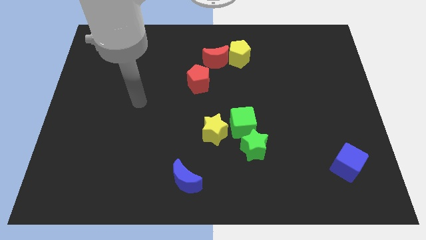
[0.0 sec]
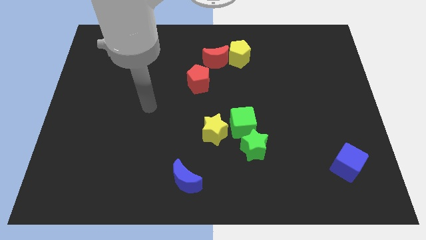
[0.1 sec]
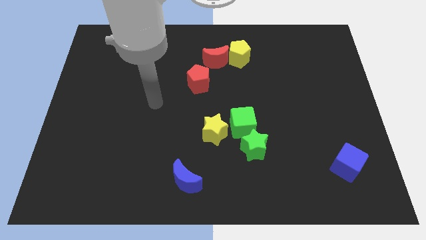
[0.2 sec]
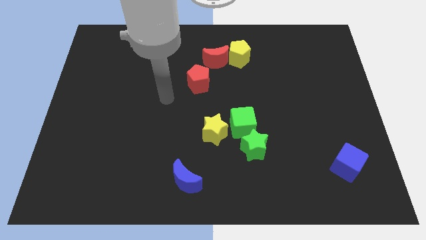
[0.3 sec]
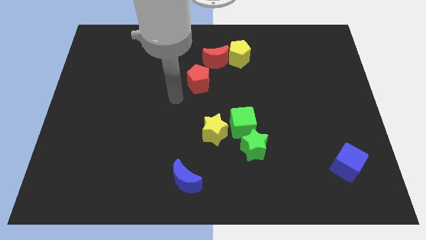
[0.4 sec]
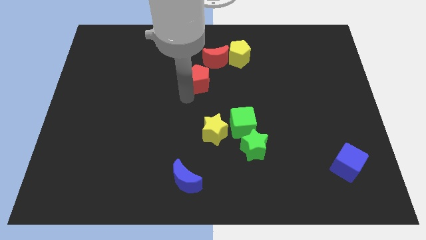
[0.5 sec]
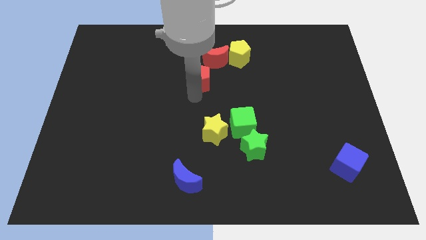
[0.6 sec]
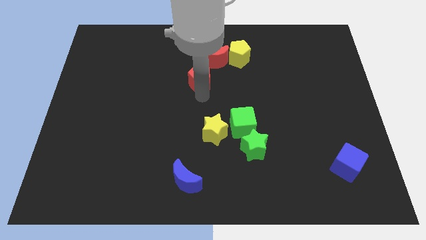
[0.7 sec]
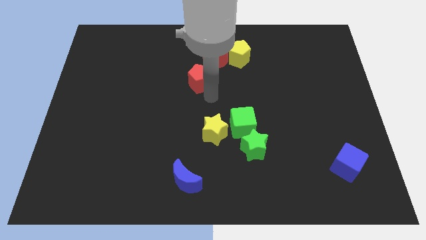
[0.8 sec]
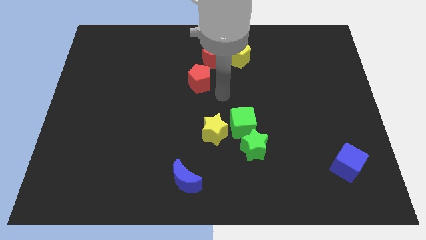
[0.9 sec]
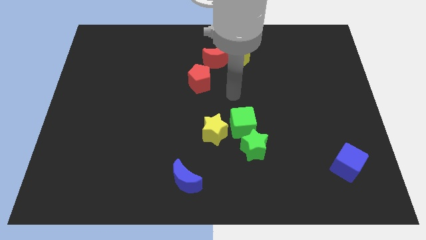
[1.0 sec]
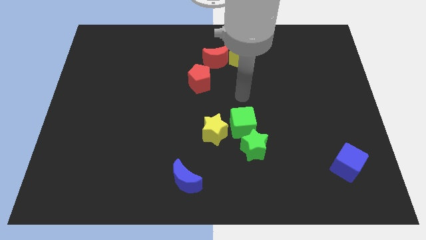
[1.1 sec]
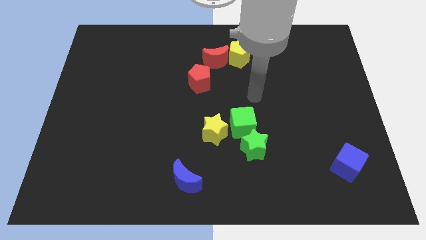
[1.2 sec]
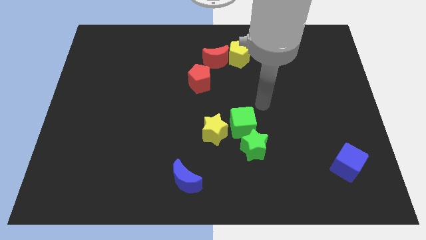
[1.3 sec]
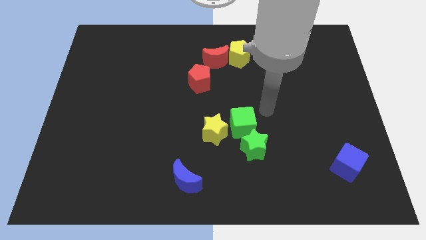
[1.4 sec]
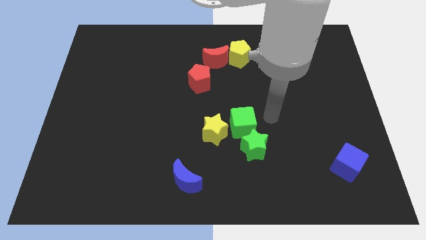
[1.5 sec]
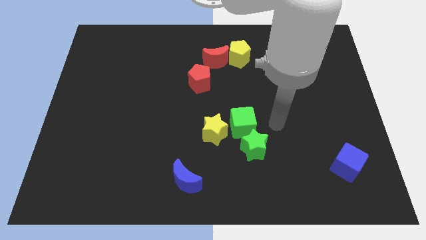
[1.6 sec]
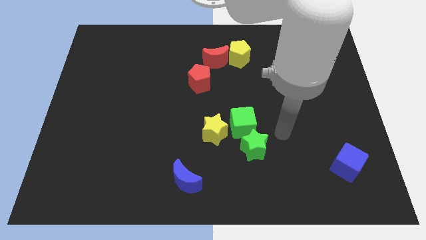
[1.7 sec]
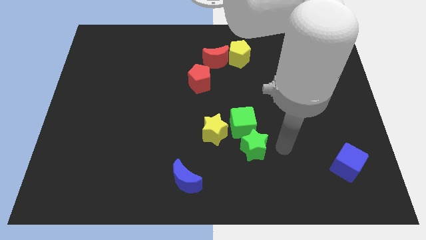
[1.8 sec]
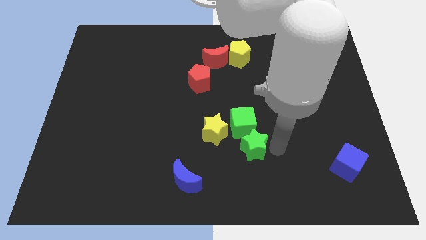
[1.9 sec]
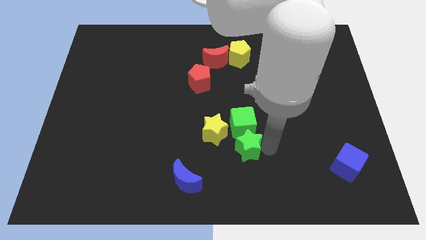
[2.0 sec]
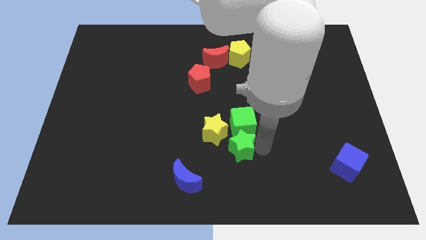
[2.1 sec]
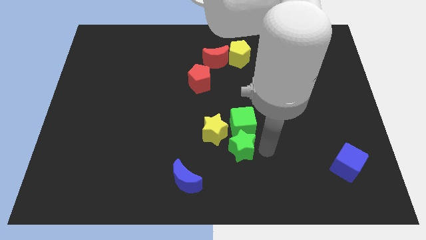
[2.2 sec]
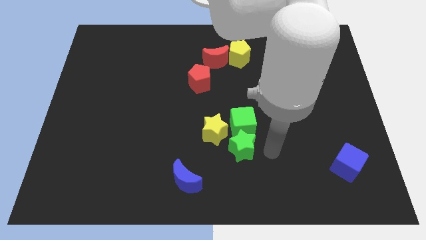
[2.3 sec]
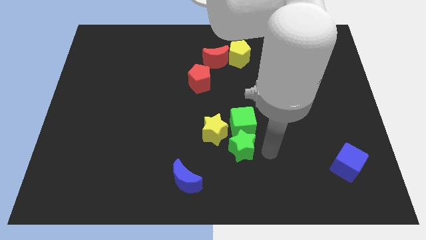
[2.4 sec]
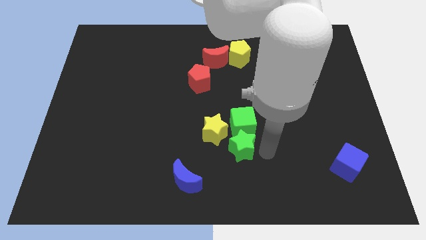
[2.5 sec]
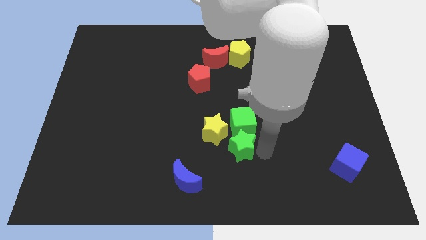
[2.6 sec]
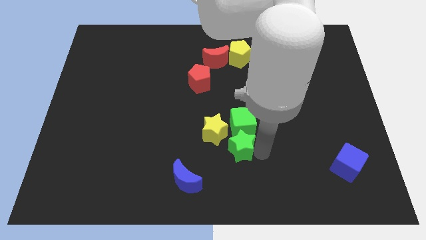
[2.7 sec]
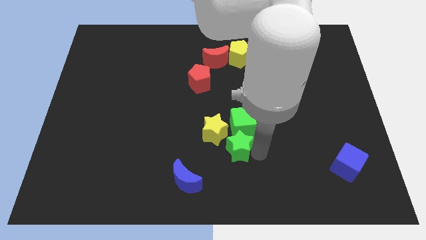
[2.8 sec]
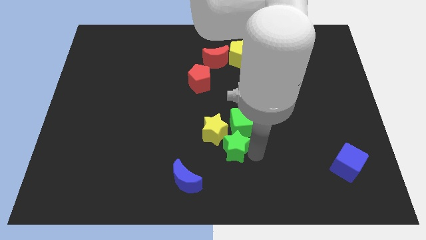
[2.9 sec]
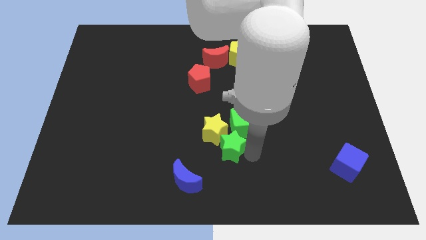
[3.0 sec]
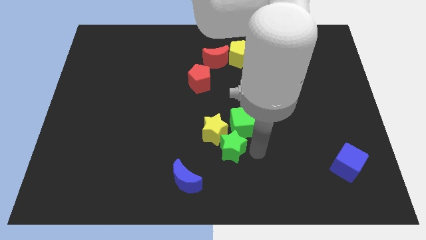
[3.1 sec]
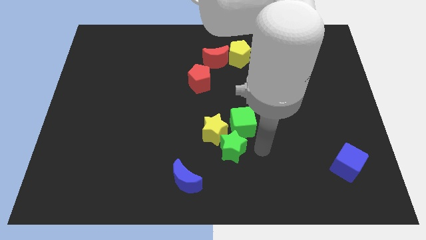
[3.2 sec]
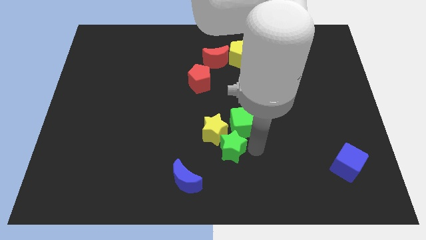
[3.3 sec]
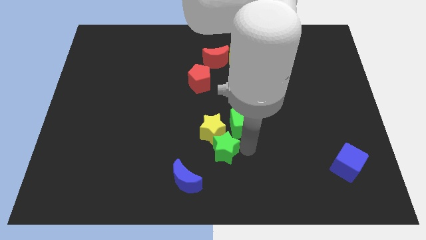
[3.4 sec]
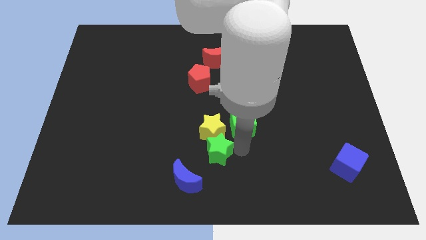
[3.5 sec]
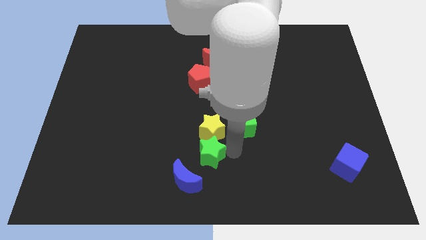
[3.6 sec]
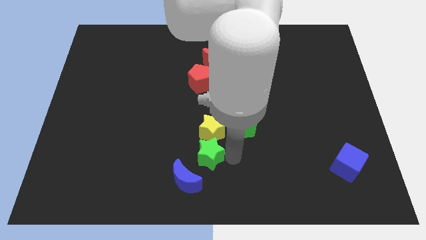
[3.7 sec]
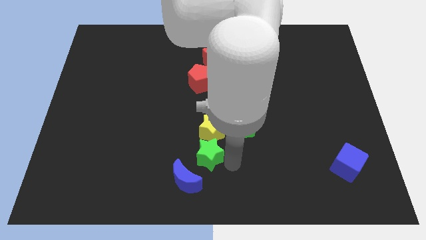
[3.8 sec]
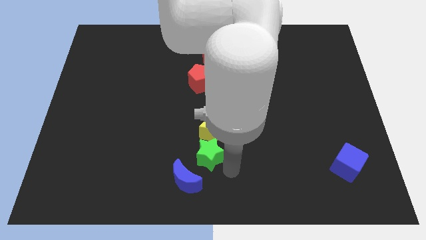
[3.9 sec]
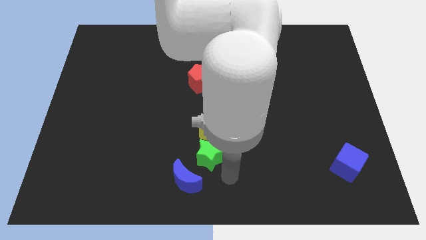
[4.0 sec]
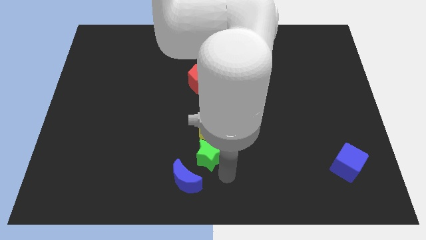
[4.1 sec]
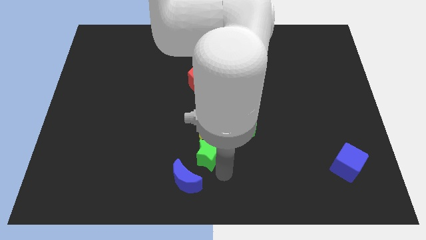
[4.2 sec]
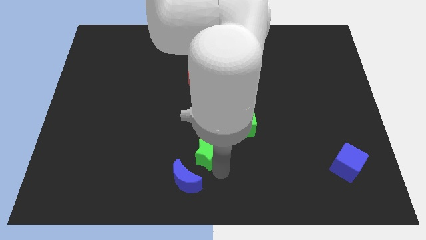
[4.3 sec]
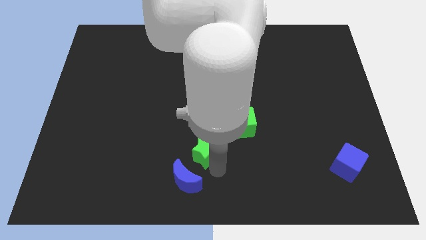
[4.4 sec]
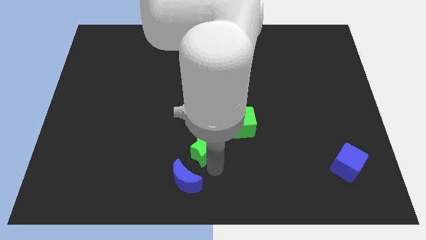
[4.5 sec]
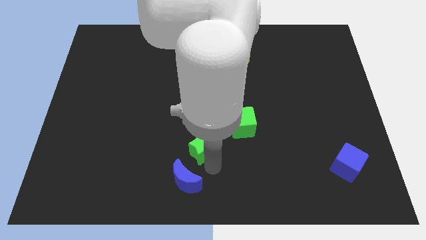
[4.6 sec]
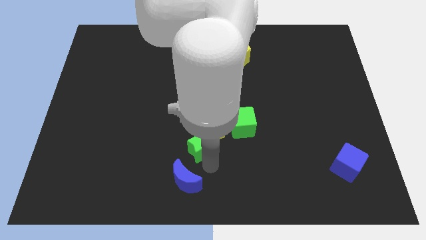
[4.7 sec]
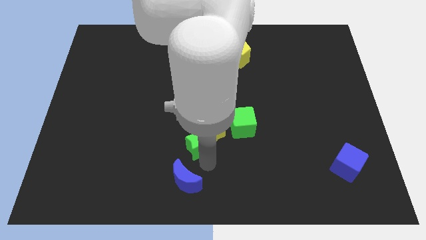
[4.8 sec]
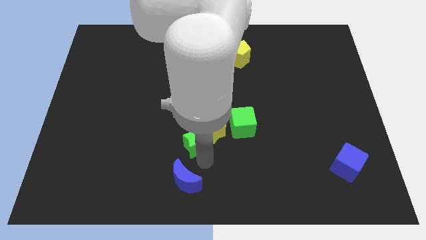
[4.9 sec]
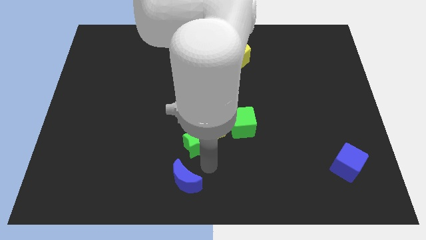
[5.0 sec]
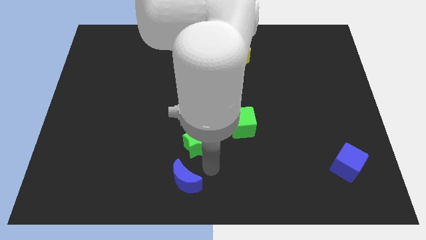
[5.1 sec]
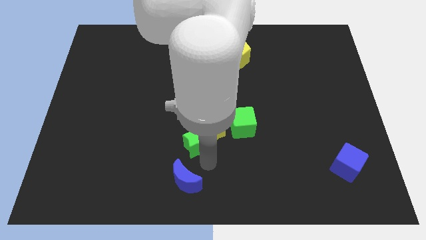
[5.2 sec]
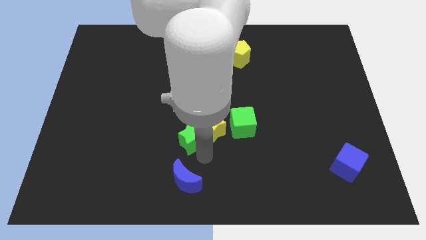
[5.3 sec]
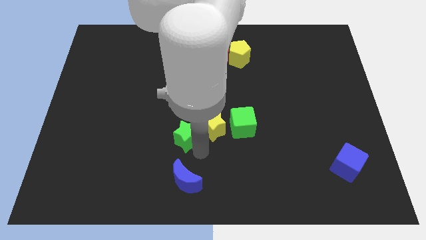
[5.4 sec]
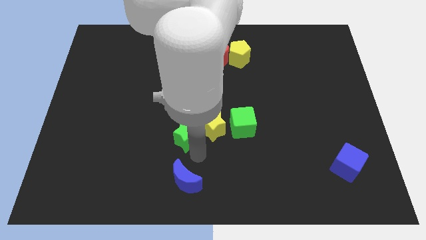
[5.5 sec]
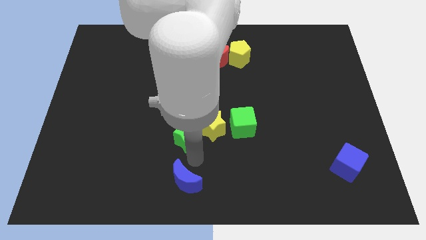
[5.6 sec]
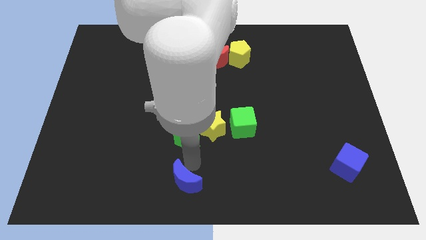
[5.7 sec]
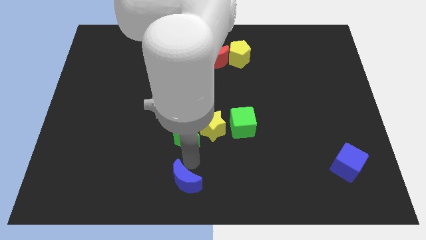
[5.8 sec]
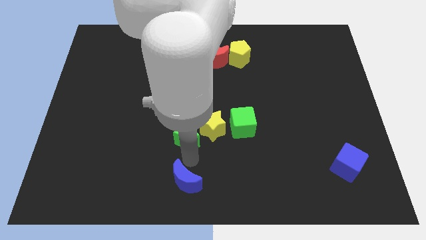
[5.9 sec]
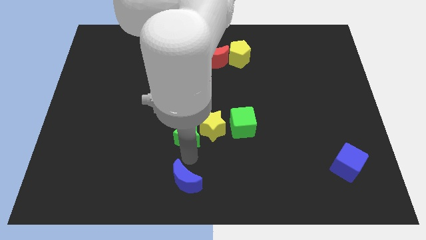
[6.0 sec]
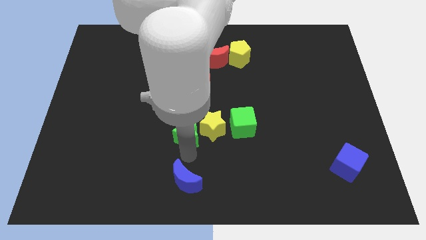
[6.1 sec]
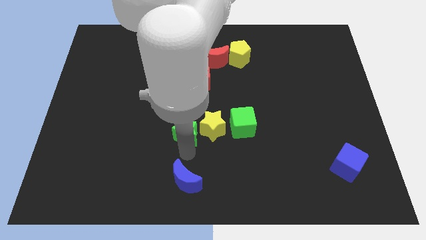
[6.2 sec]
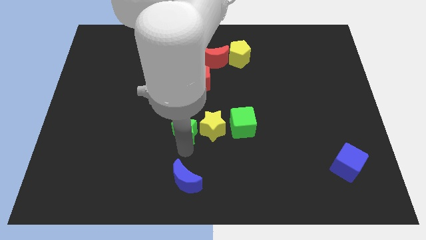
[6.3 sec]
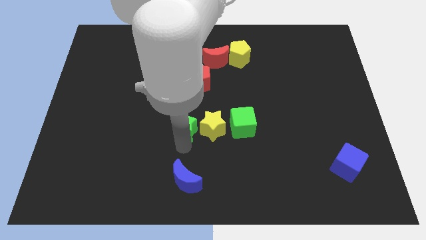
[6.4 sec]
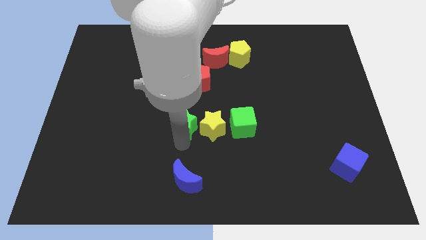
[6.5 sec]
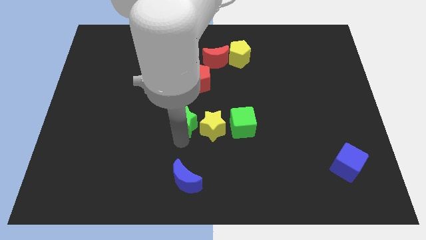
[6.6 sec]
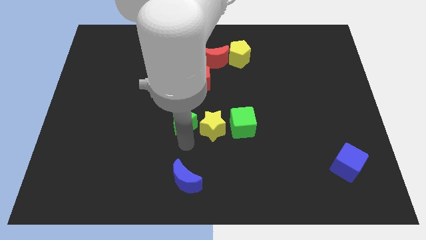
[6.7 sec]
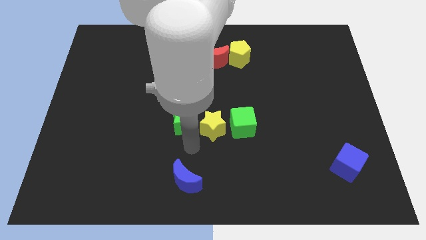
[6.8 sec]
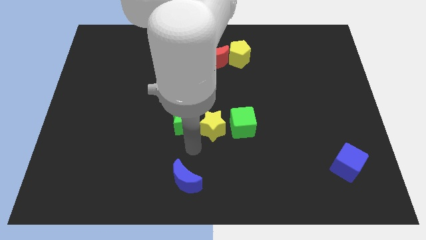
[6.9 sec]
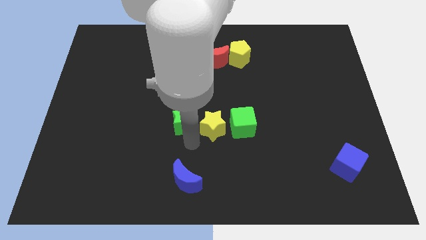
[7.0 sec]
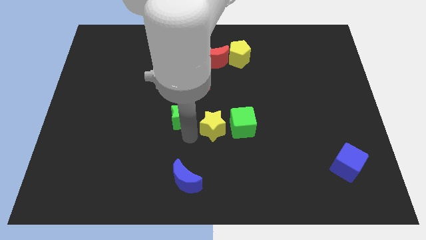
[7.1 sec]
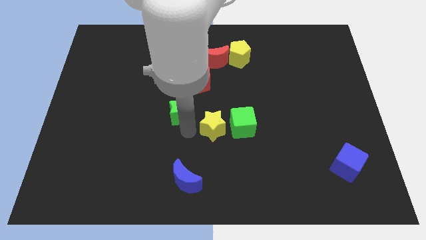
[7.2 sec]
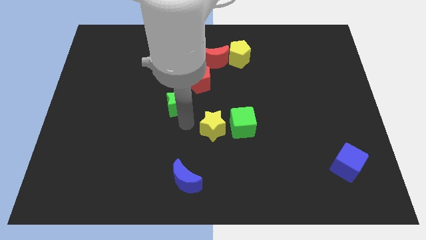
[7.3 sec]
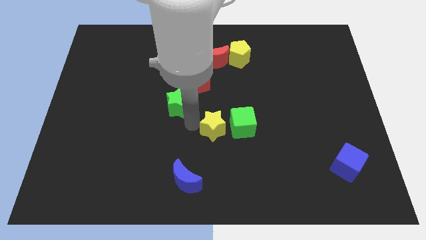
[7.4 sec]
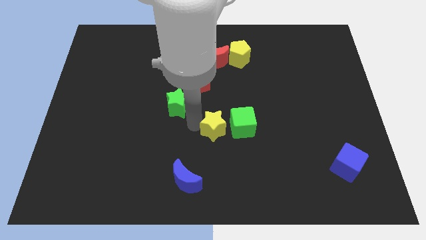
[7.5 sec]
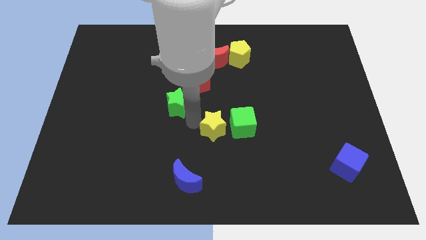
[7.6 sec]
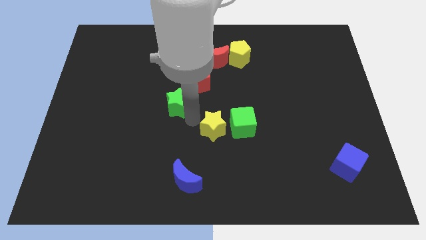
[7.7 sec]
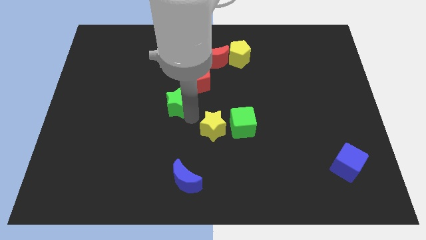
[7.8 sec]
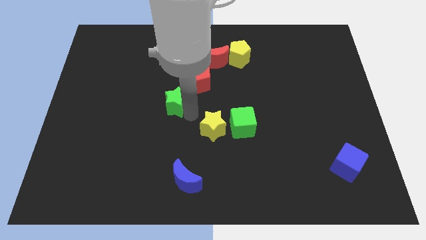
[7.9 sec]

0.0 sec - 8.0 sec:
move the green star upwards and then left
